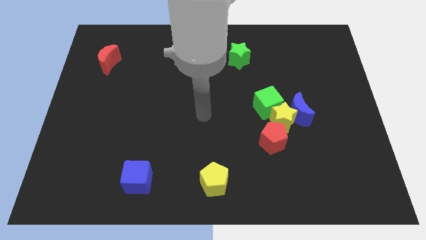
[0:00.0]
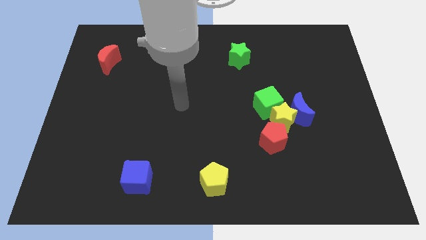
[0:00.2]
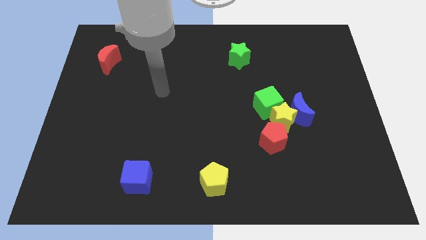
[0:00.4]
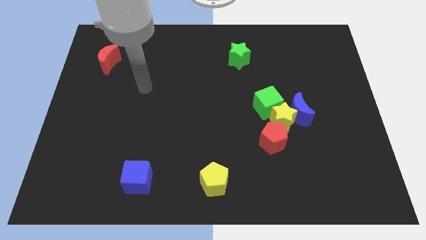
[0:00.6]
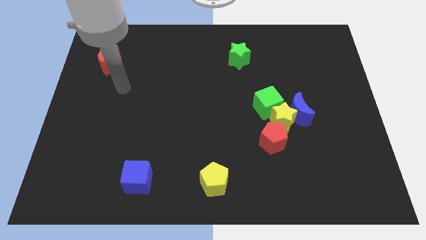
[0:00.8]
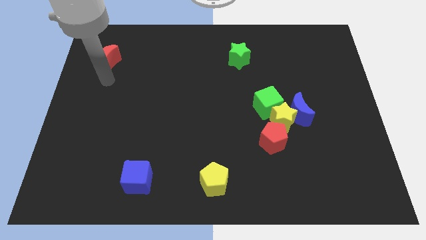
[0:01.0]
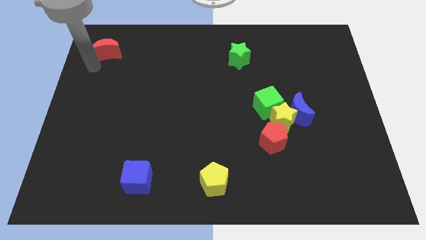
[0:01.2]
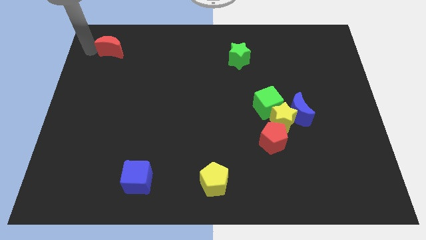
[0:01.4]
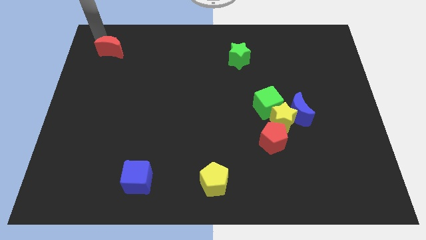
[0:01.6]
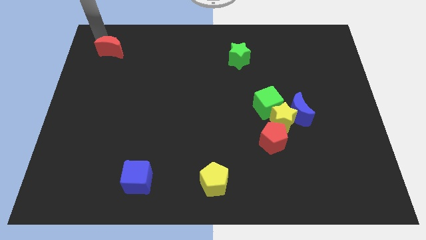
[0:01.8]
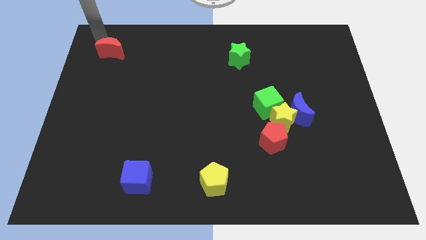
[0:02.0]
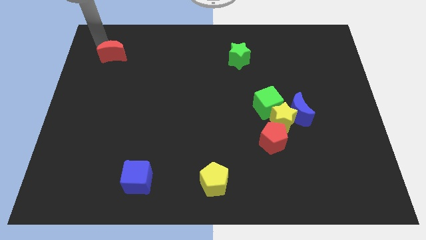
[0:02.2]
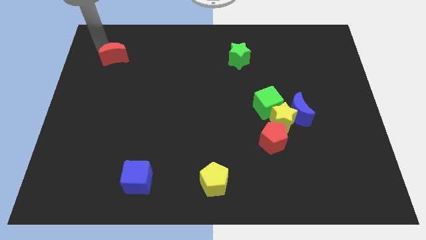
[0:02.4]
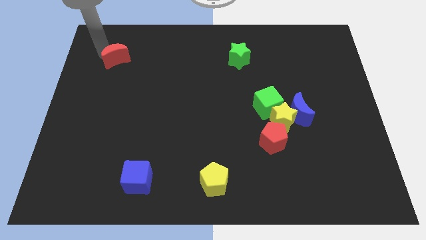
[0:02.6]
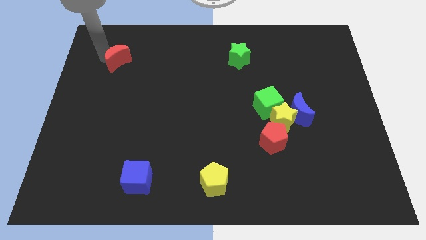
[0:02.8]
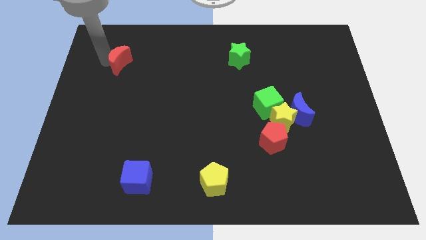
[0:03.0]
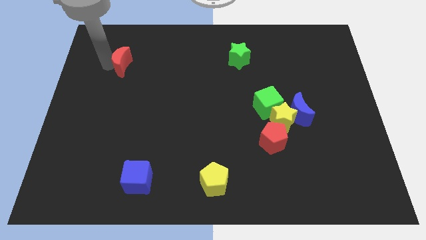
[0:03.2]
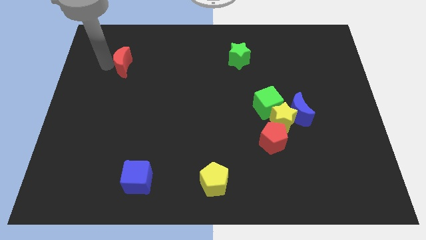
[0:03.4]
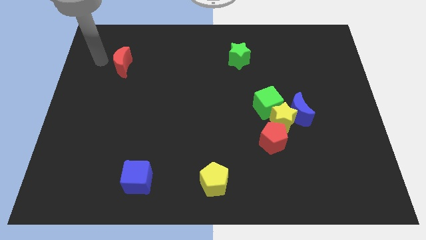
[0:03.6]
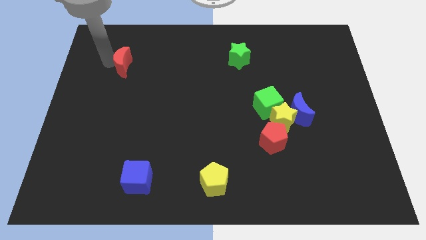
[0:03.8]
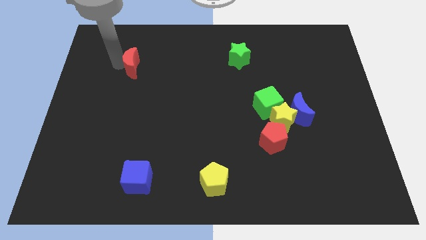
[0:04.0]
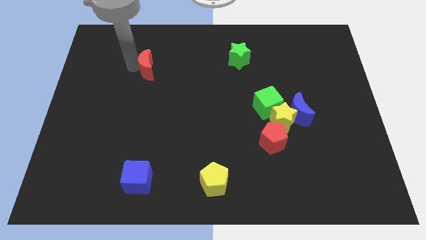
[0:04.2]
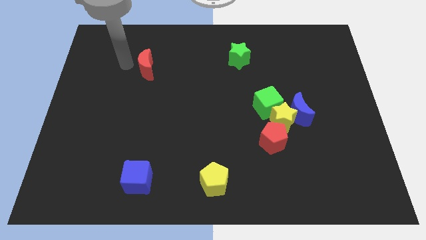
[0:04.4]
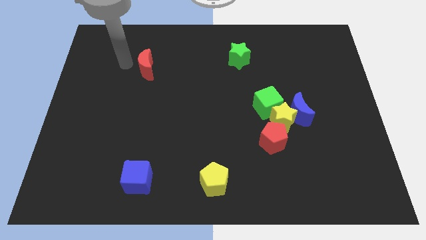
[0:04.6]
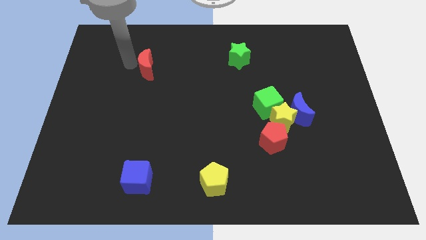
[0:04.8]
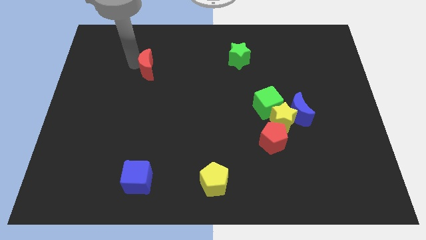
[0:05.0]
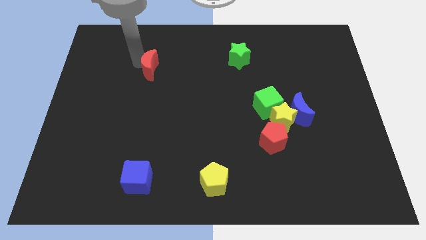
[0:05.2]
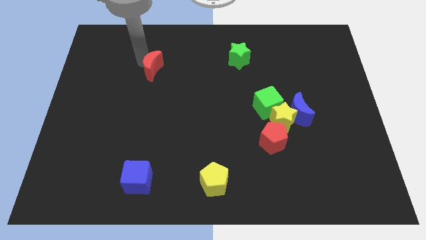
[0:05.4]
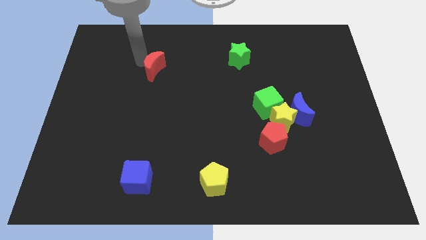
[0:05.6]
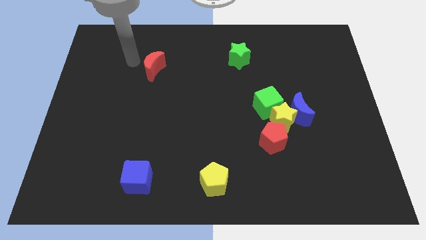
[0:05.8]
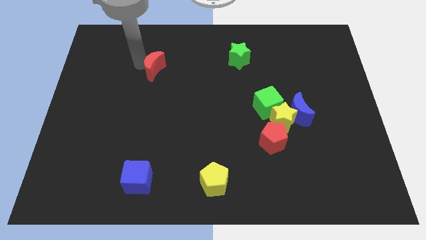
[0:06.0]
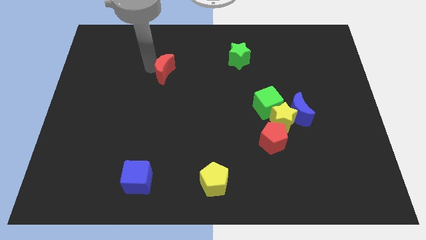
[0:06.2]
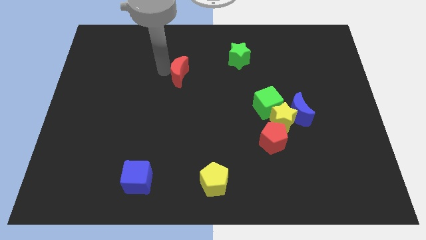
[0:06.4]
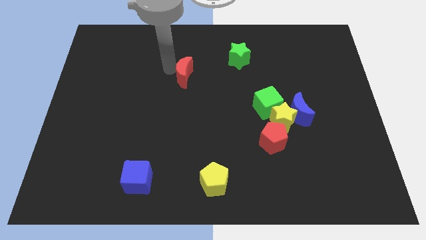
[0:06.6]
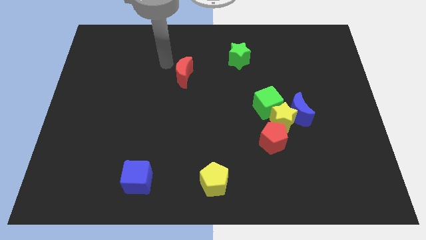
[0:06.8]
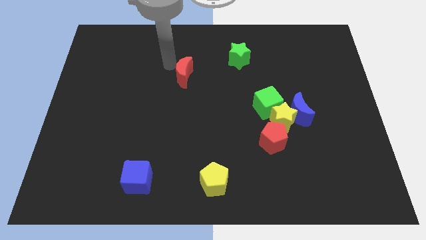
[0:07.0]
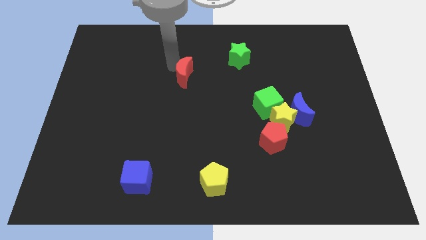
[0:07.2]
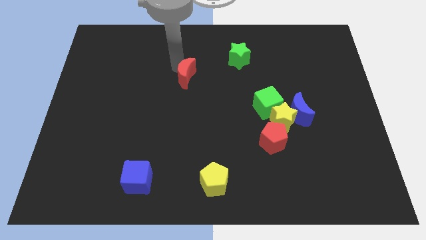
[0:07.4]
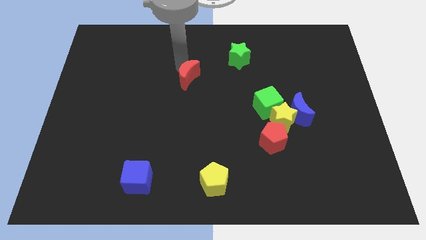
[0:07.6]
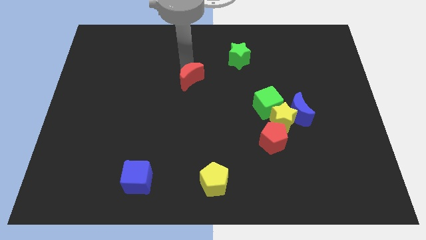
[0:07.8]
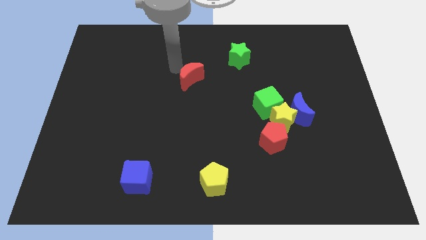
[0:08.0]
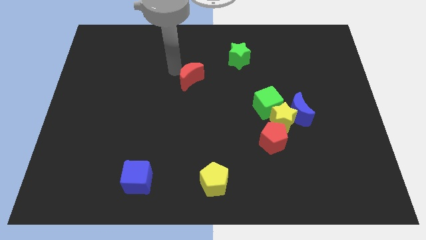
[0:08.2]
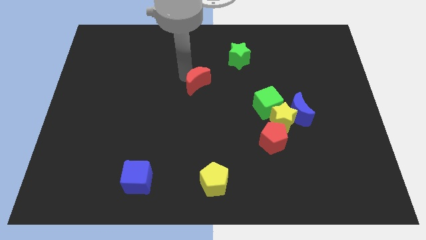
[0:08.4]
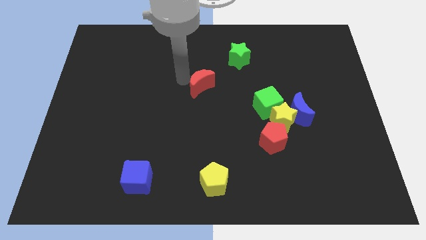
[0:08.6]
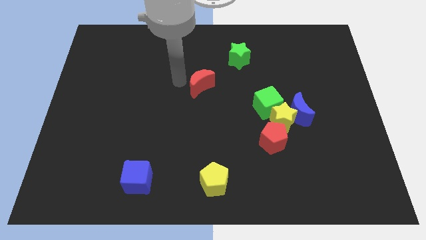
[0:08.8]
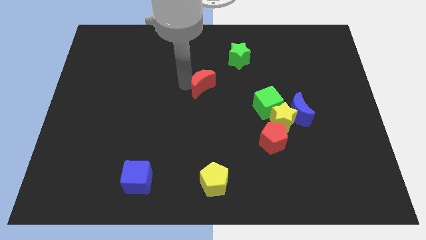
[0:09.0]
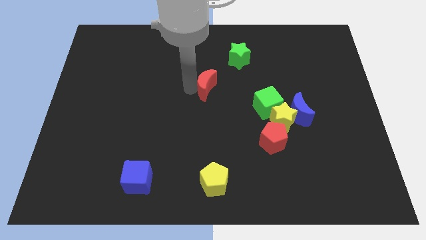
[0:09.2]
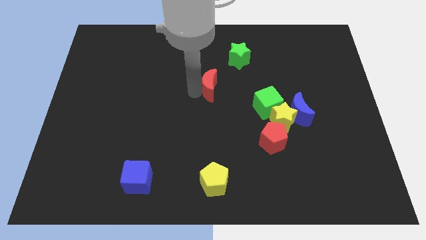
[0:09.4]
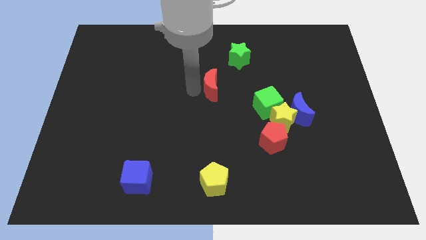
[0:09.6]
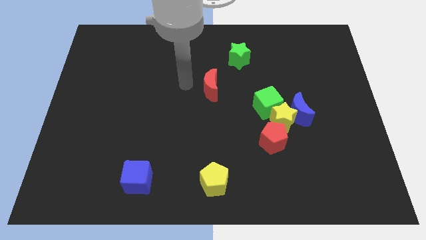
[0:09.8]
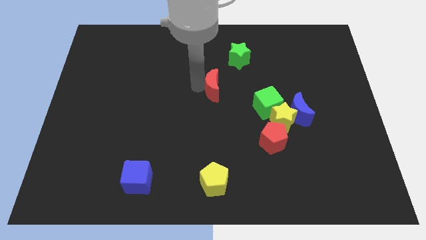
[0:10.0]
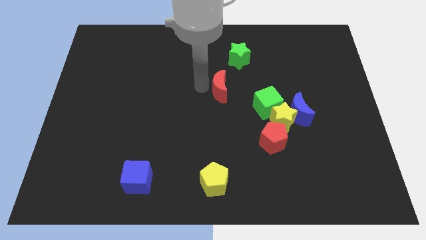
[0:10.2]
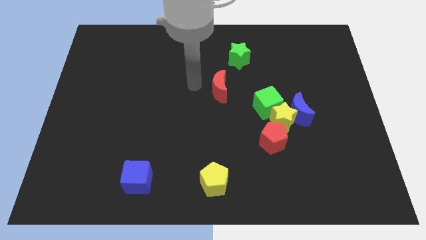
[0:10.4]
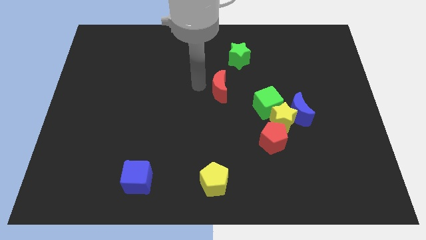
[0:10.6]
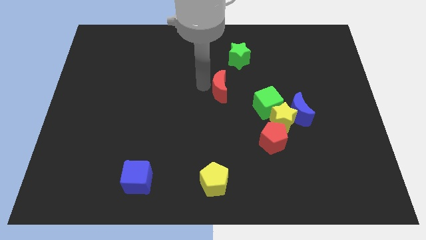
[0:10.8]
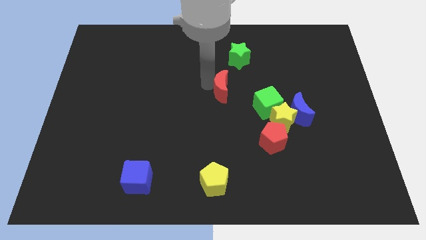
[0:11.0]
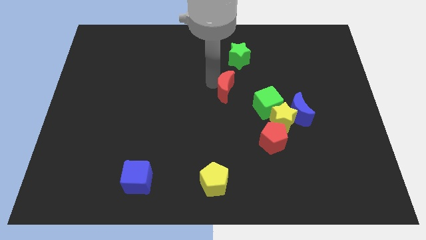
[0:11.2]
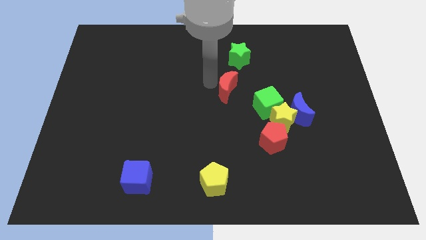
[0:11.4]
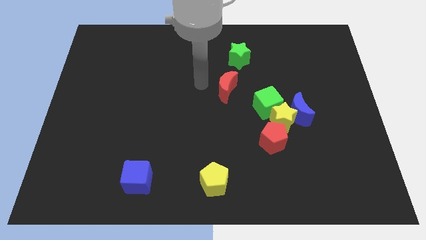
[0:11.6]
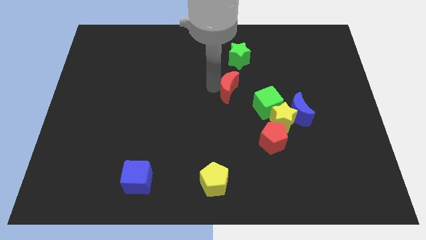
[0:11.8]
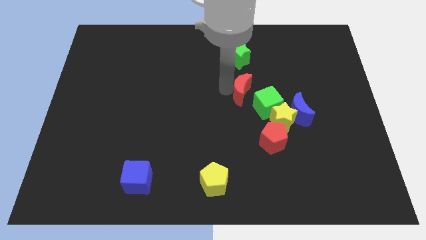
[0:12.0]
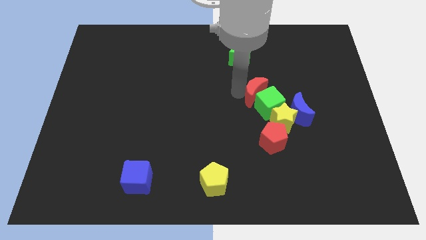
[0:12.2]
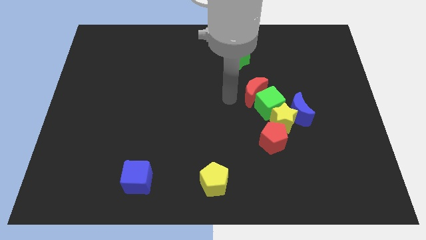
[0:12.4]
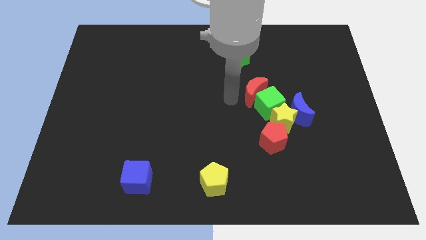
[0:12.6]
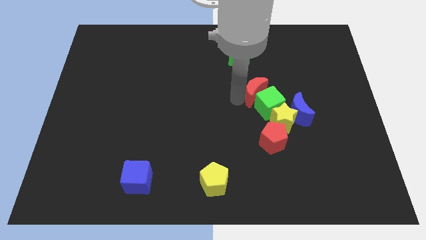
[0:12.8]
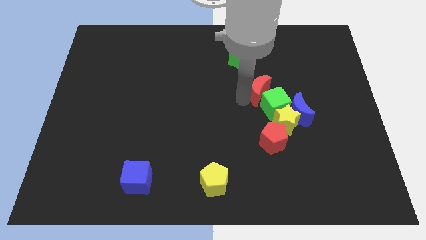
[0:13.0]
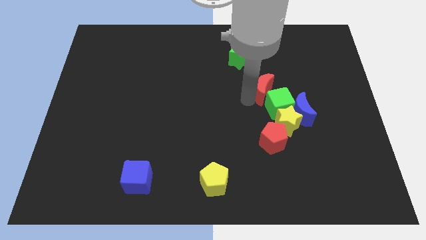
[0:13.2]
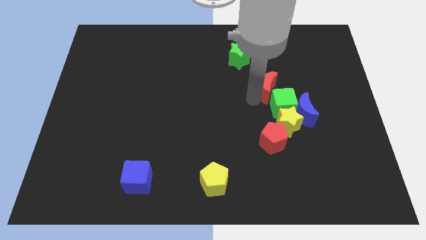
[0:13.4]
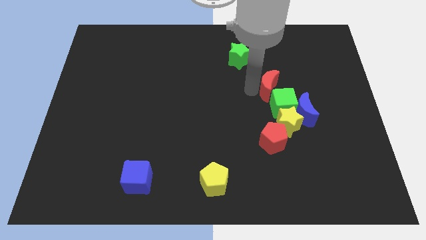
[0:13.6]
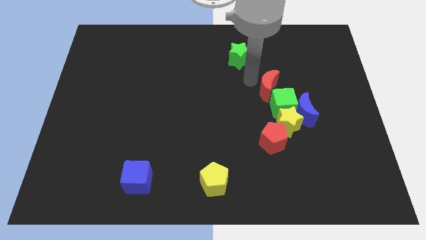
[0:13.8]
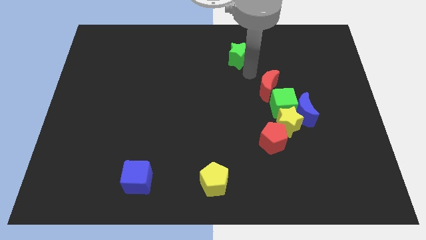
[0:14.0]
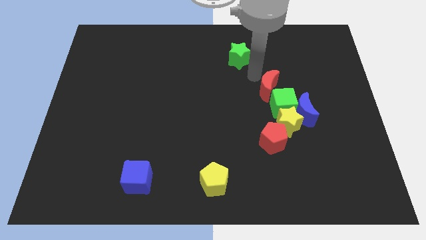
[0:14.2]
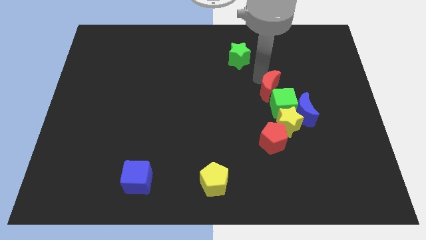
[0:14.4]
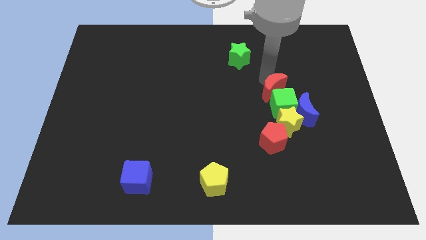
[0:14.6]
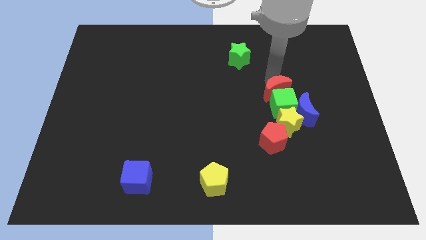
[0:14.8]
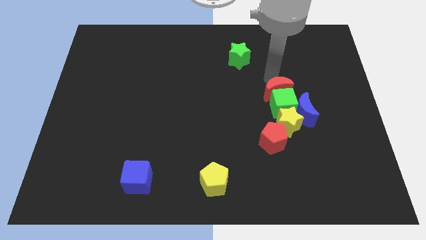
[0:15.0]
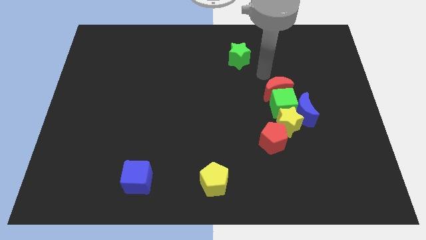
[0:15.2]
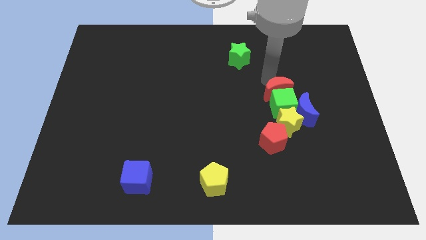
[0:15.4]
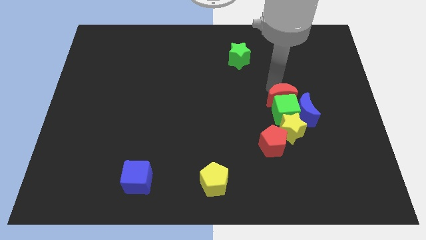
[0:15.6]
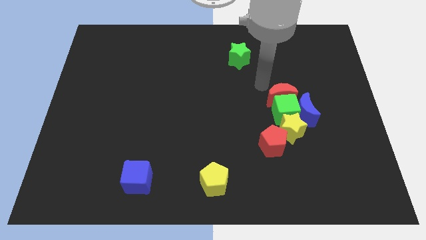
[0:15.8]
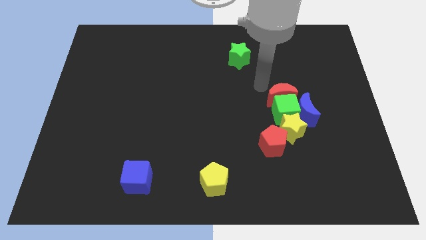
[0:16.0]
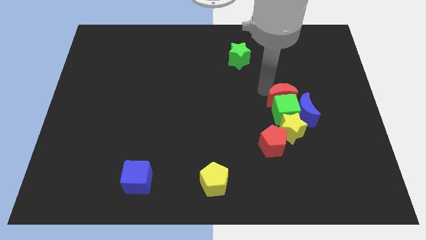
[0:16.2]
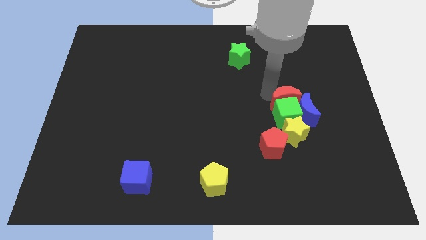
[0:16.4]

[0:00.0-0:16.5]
put the red moon close to the blue moon
